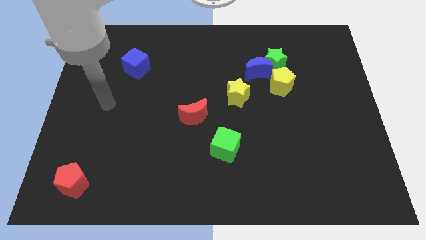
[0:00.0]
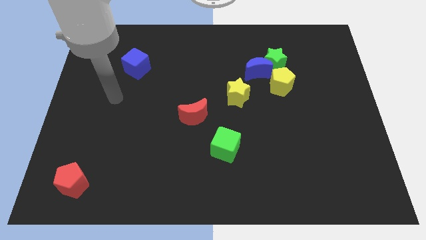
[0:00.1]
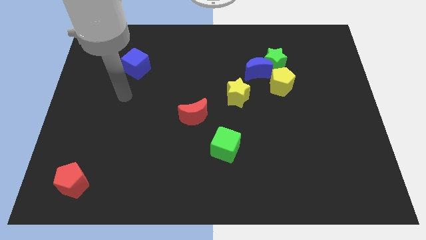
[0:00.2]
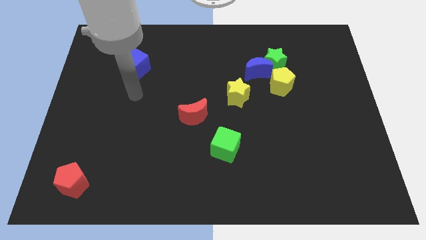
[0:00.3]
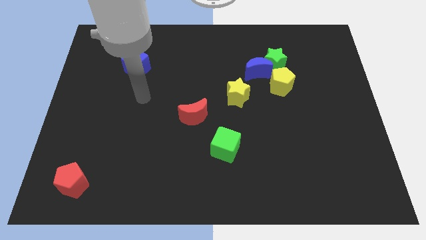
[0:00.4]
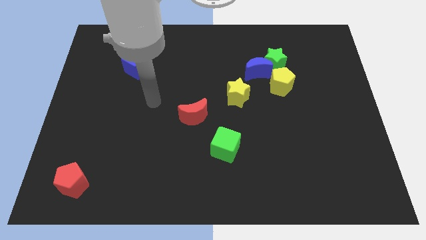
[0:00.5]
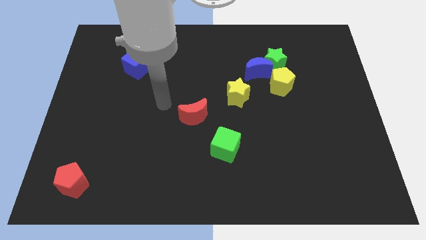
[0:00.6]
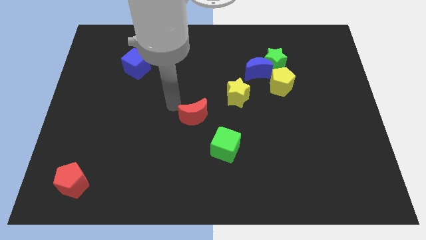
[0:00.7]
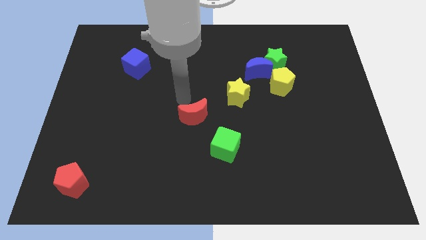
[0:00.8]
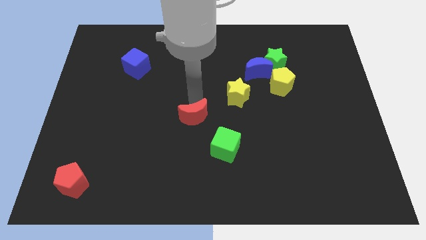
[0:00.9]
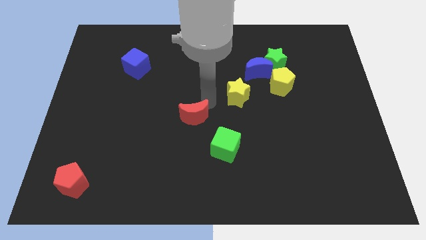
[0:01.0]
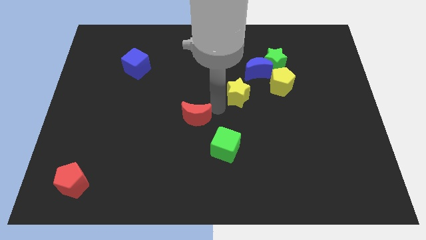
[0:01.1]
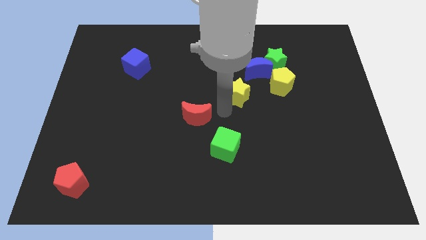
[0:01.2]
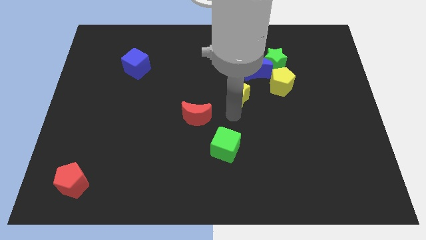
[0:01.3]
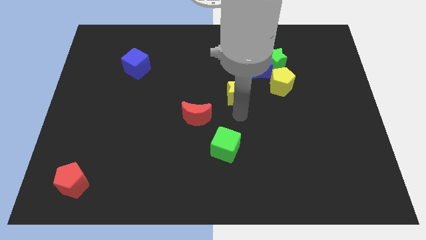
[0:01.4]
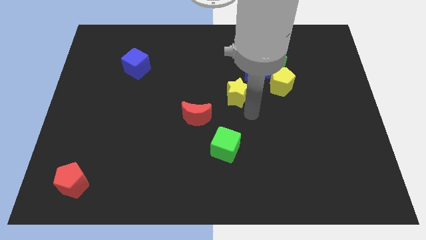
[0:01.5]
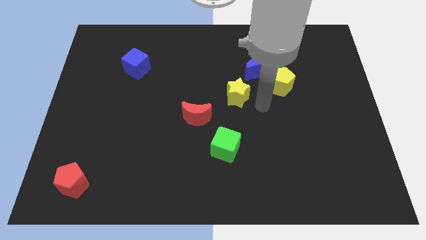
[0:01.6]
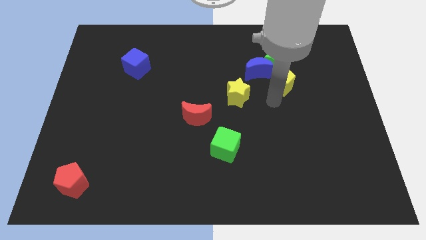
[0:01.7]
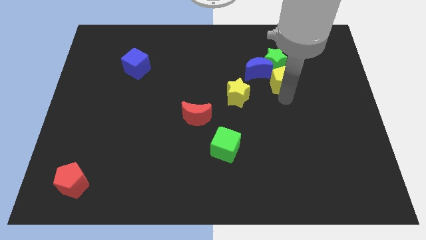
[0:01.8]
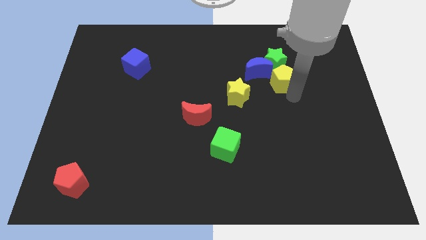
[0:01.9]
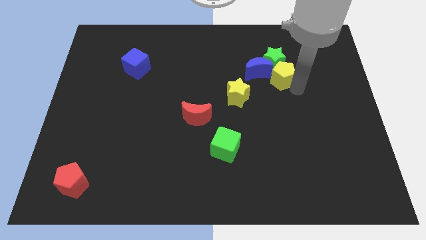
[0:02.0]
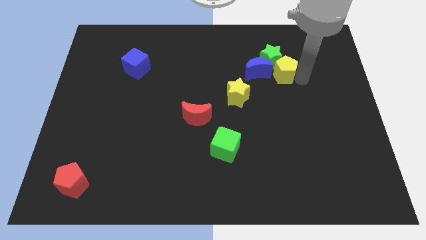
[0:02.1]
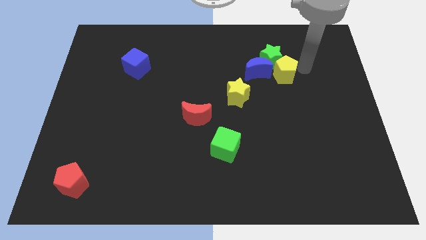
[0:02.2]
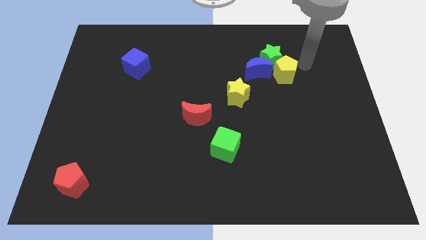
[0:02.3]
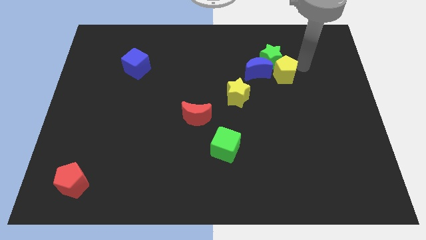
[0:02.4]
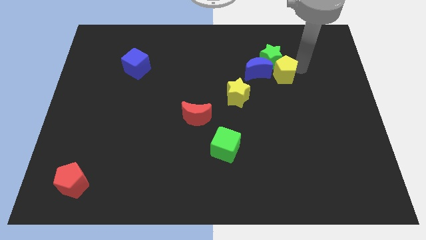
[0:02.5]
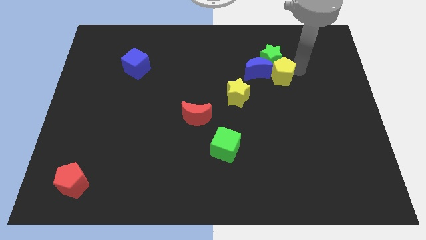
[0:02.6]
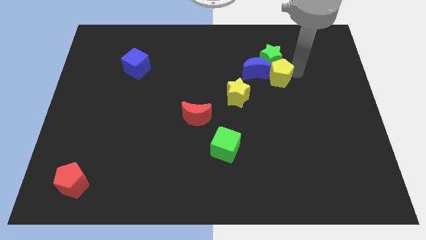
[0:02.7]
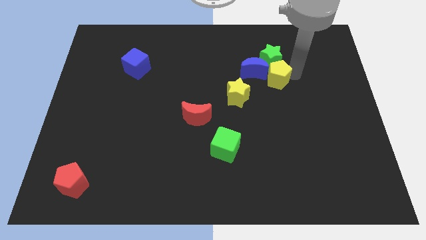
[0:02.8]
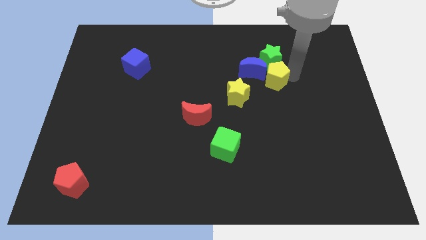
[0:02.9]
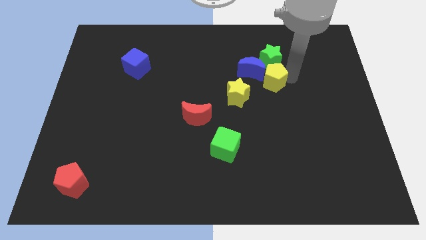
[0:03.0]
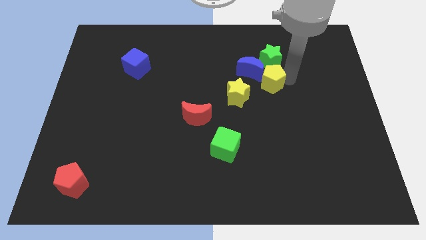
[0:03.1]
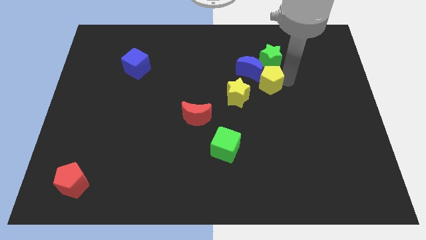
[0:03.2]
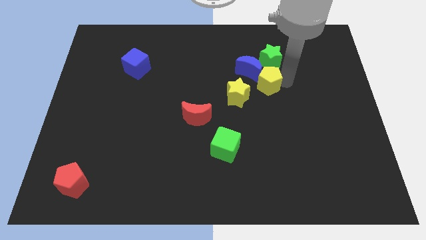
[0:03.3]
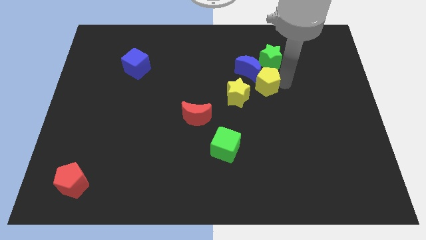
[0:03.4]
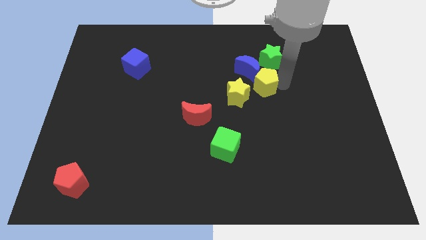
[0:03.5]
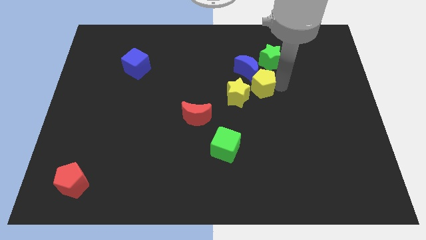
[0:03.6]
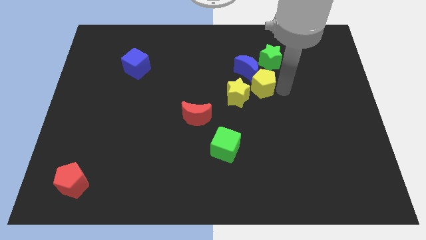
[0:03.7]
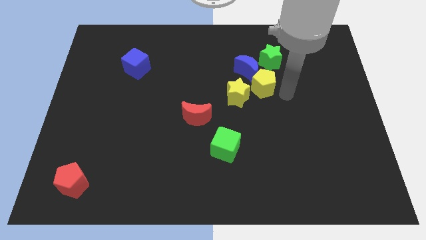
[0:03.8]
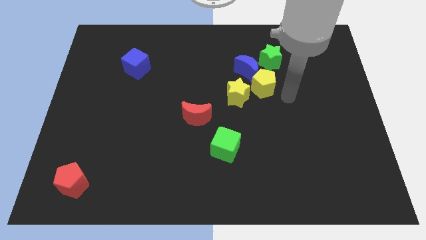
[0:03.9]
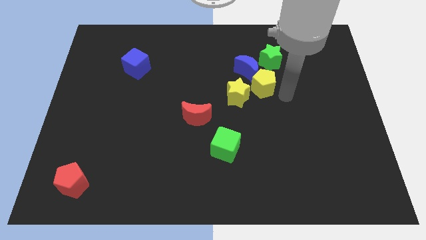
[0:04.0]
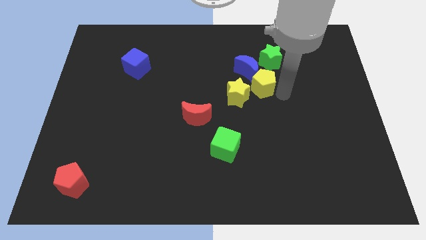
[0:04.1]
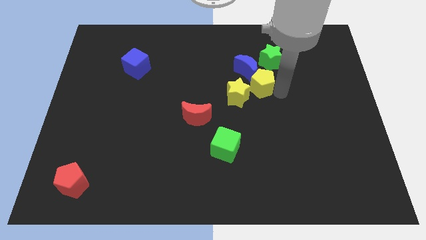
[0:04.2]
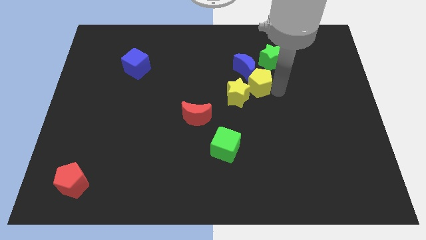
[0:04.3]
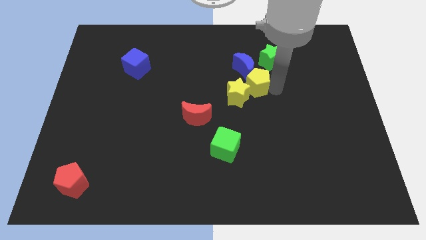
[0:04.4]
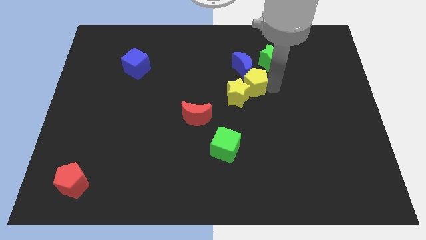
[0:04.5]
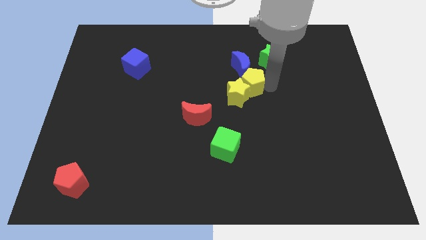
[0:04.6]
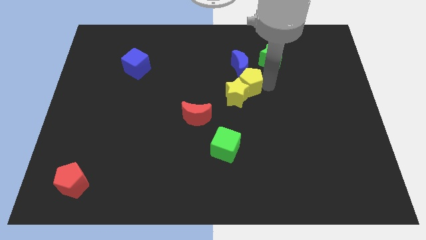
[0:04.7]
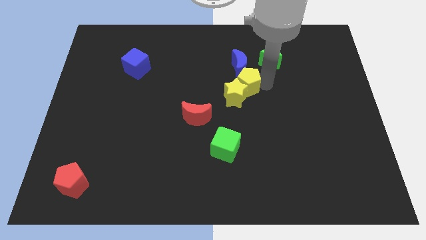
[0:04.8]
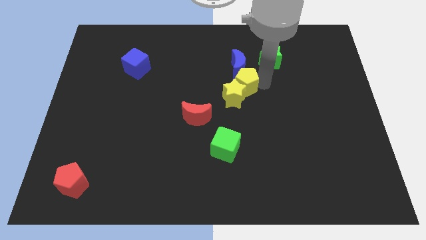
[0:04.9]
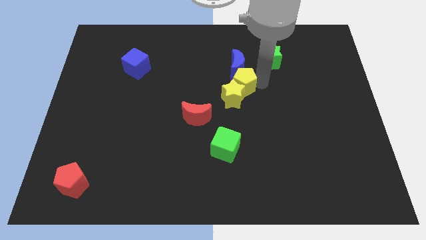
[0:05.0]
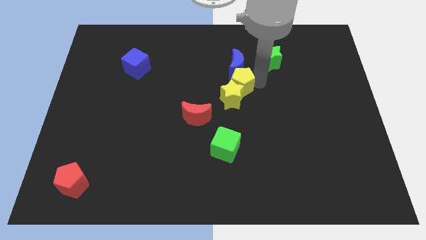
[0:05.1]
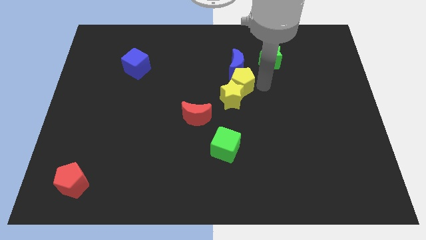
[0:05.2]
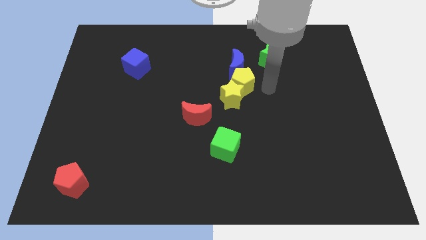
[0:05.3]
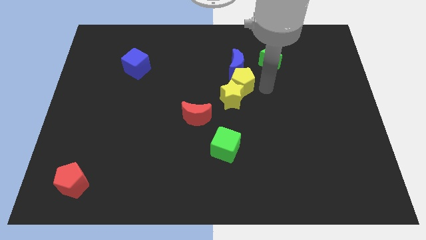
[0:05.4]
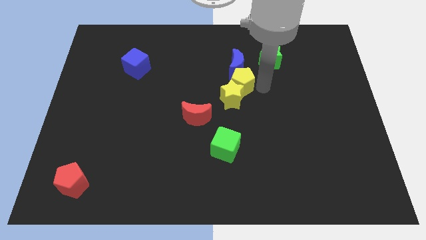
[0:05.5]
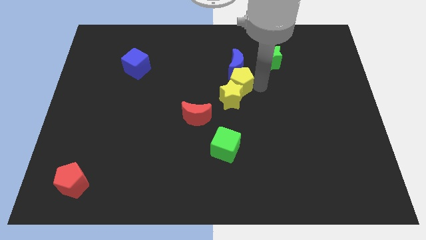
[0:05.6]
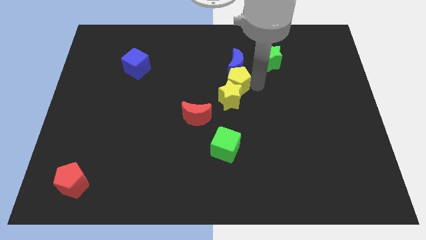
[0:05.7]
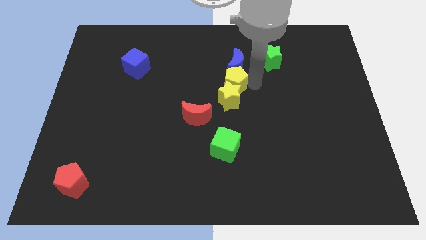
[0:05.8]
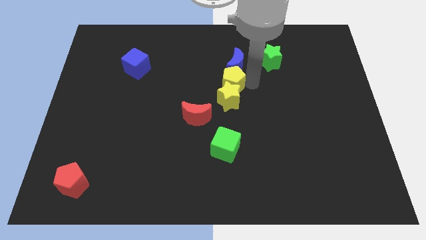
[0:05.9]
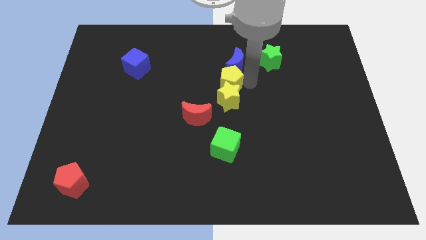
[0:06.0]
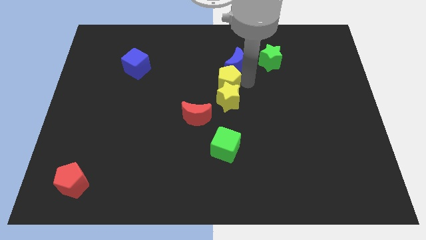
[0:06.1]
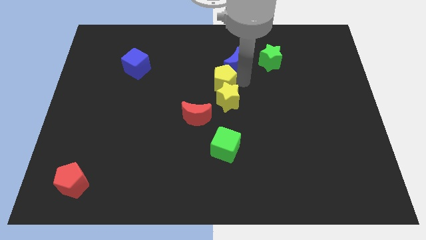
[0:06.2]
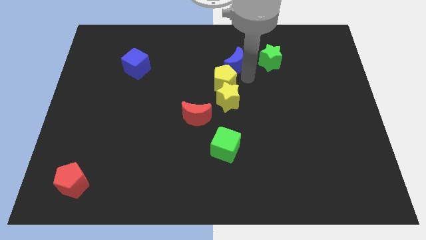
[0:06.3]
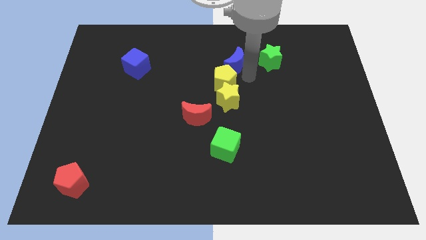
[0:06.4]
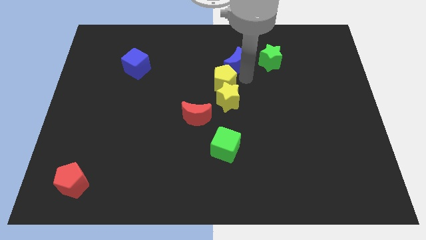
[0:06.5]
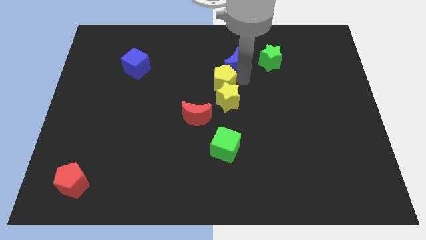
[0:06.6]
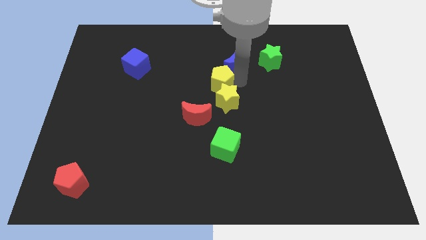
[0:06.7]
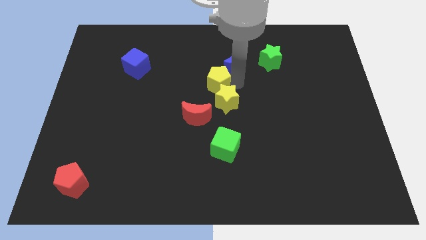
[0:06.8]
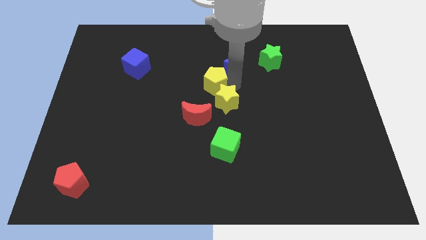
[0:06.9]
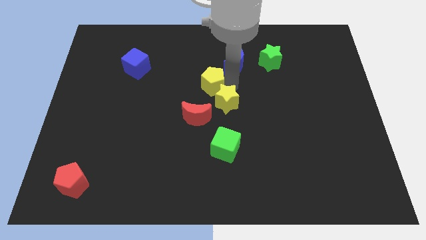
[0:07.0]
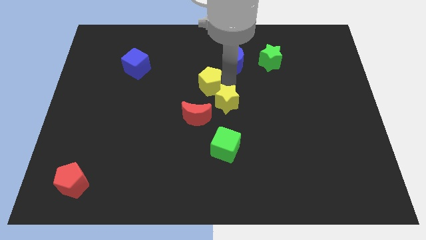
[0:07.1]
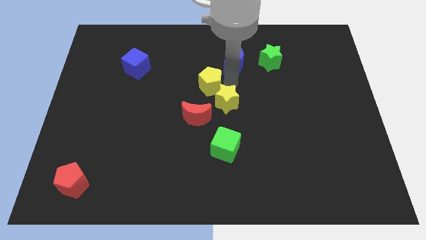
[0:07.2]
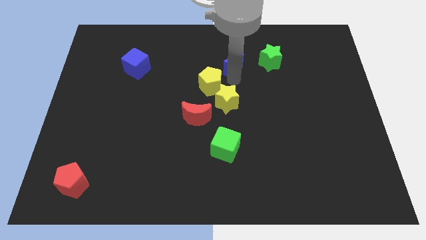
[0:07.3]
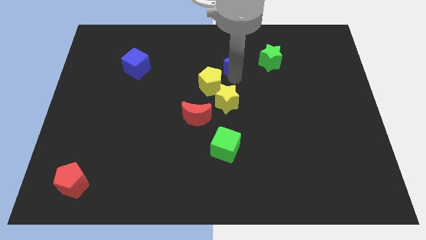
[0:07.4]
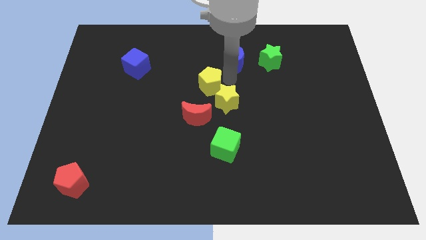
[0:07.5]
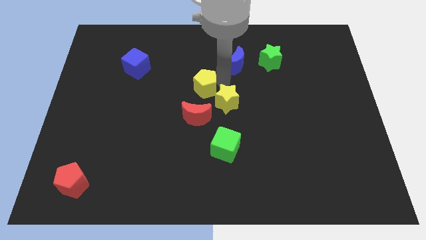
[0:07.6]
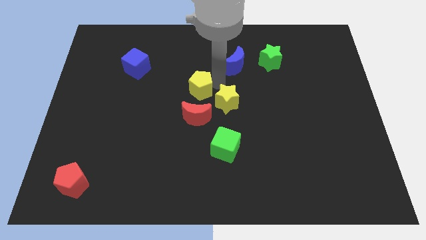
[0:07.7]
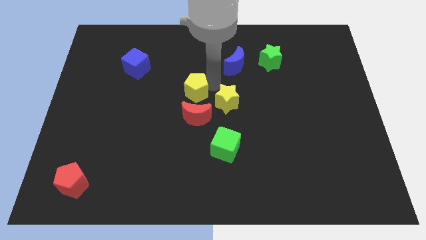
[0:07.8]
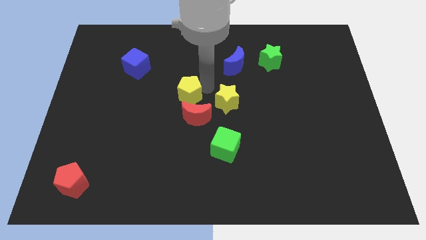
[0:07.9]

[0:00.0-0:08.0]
slide the yellow pentagon to the top left side of the red moon
